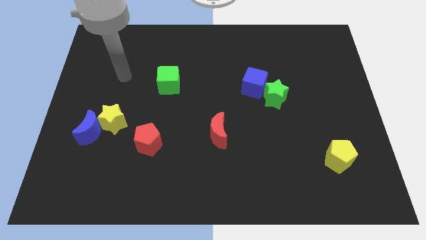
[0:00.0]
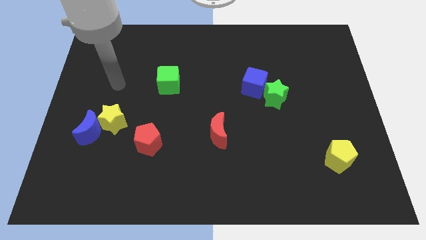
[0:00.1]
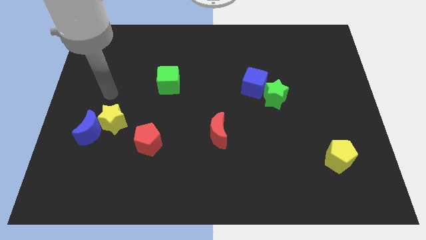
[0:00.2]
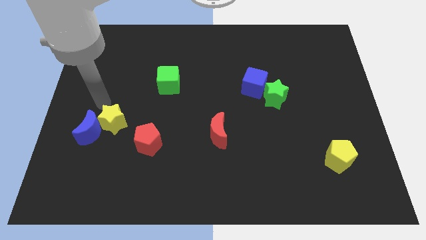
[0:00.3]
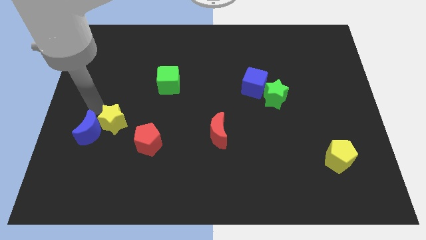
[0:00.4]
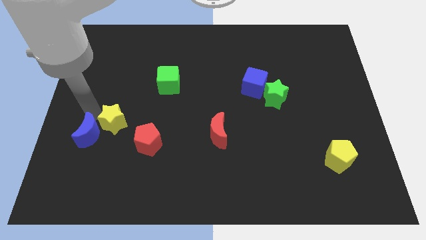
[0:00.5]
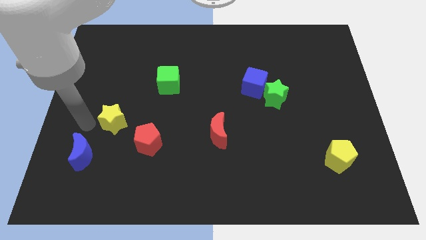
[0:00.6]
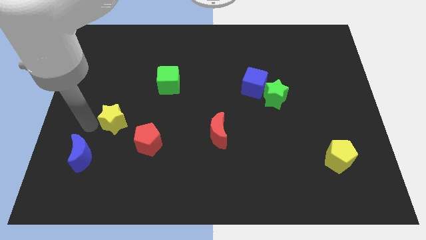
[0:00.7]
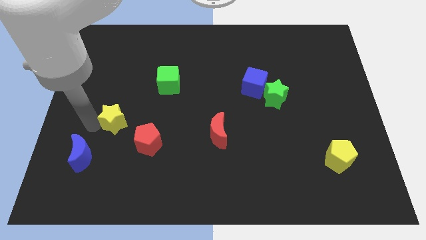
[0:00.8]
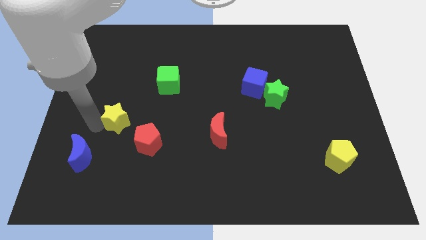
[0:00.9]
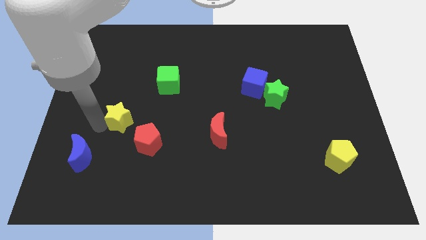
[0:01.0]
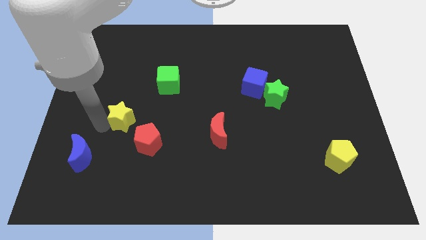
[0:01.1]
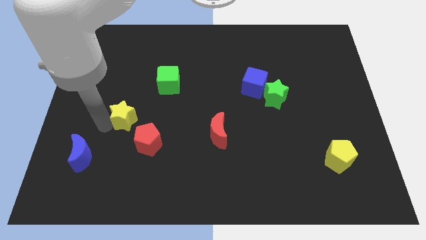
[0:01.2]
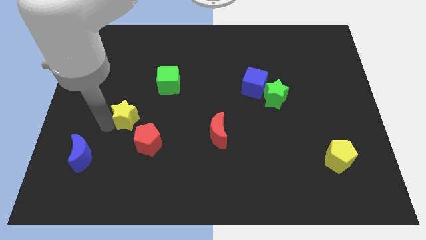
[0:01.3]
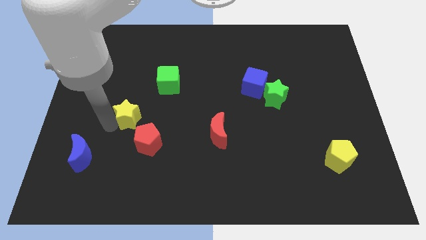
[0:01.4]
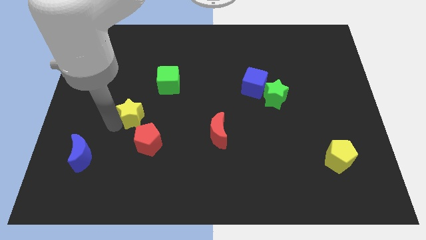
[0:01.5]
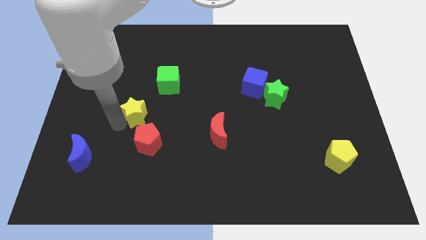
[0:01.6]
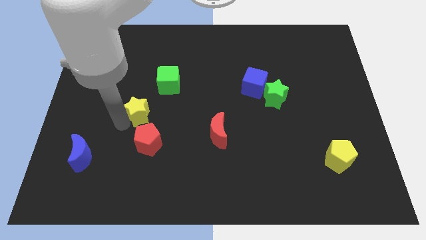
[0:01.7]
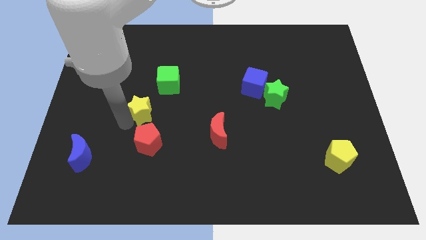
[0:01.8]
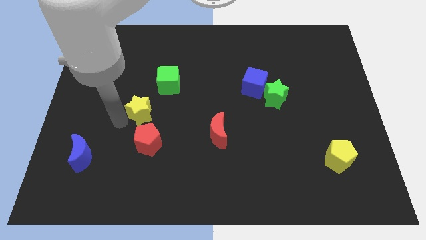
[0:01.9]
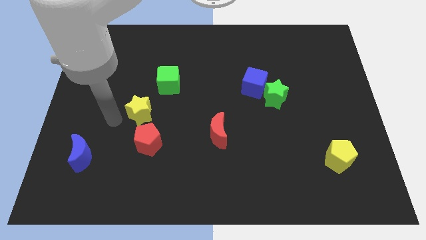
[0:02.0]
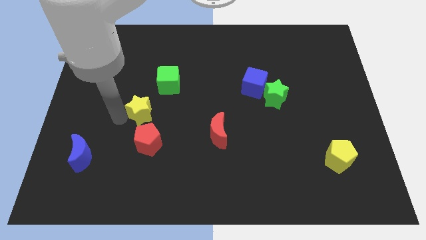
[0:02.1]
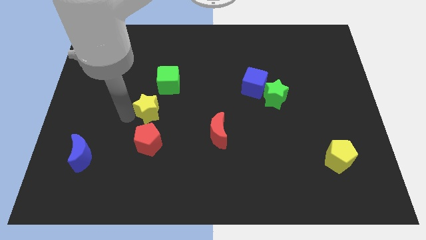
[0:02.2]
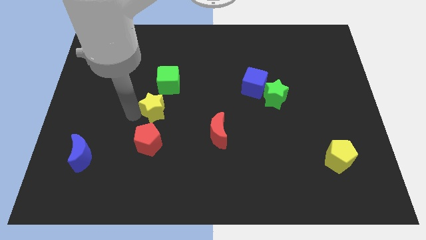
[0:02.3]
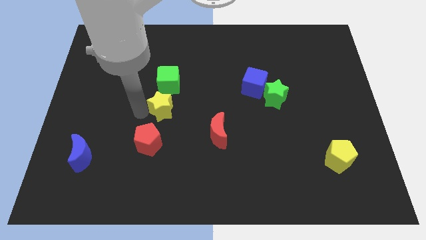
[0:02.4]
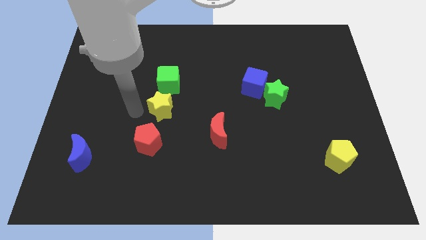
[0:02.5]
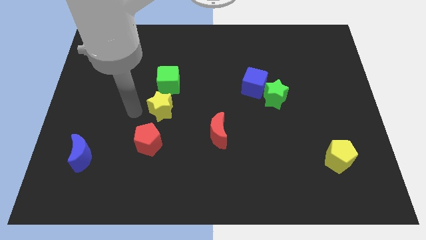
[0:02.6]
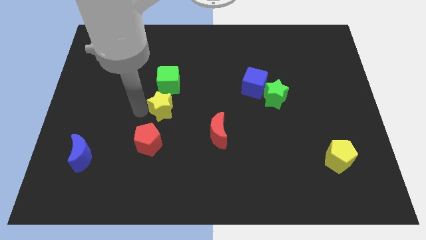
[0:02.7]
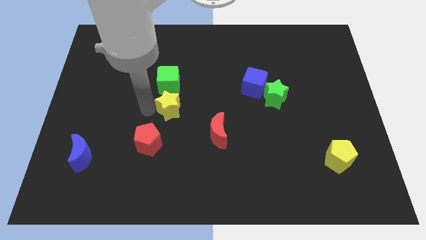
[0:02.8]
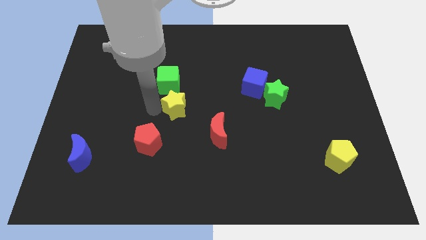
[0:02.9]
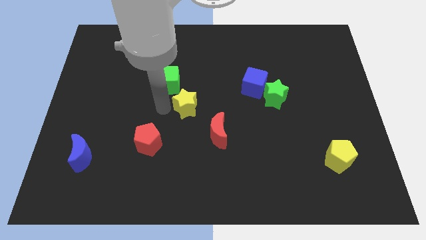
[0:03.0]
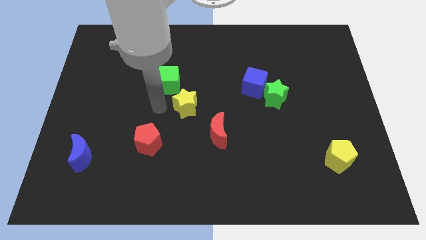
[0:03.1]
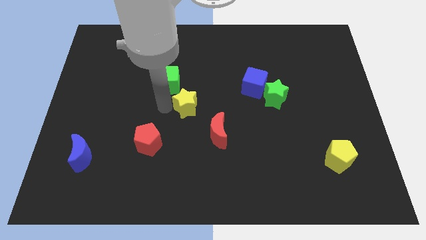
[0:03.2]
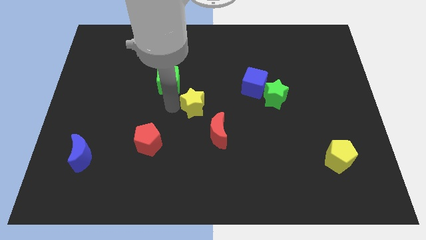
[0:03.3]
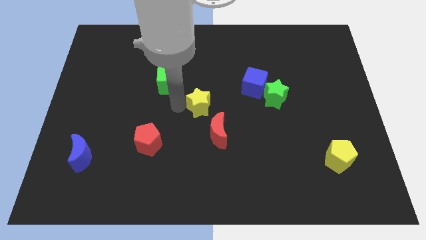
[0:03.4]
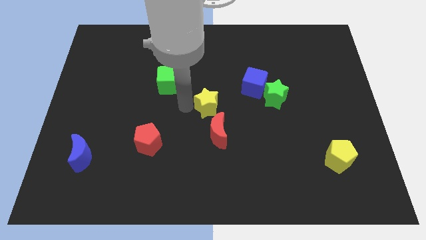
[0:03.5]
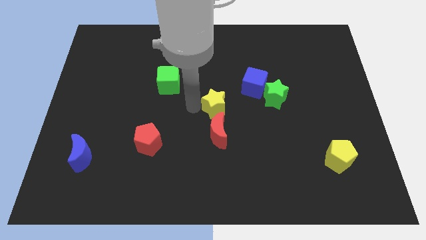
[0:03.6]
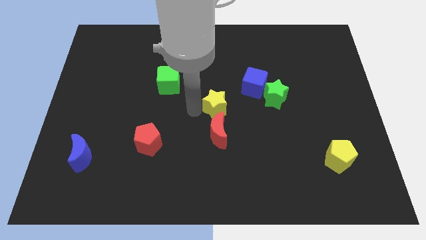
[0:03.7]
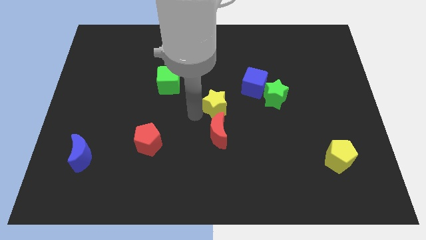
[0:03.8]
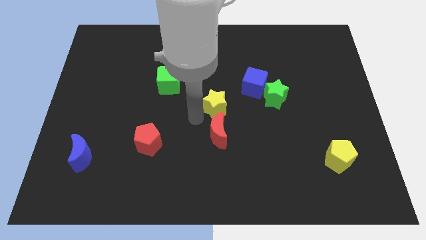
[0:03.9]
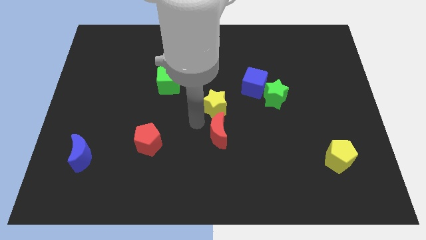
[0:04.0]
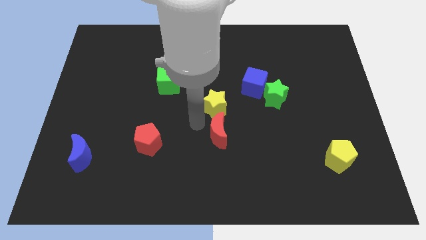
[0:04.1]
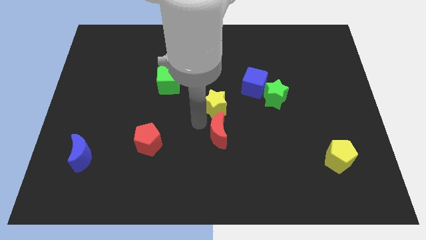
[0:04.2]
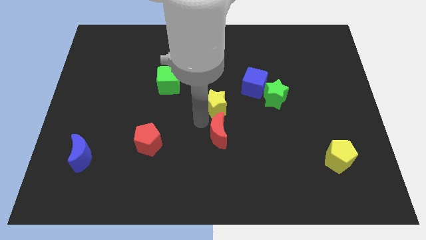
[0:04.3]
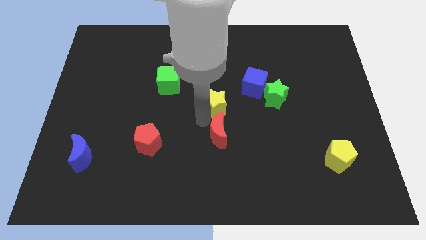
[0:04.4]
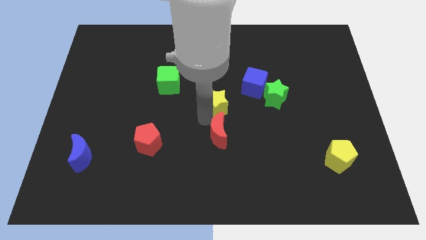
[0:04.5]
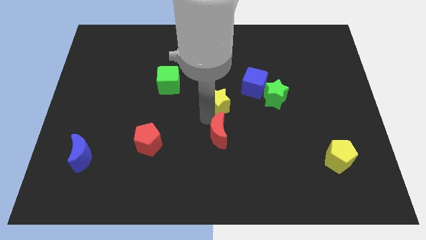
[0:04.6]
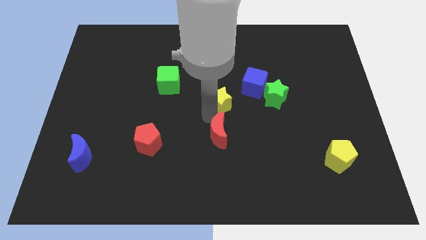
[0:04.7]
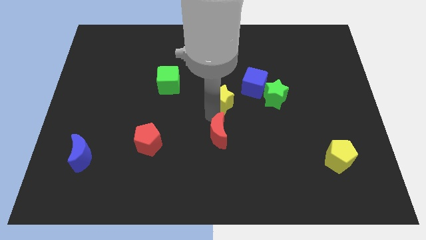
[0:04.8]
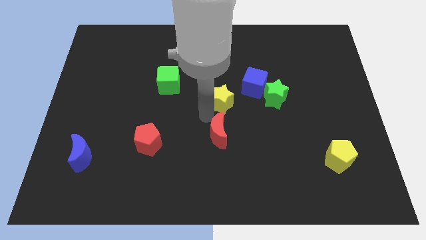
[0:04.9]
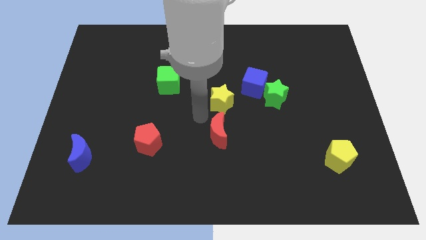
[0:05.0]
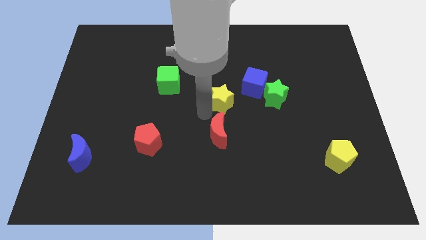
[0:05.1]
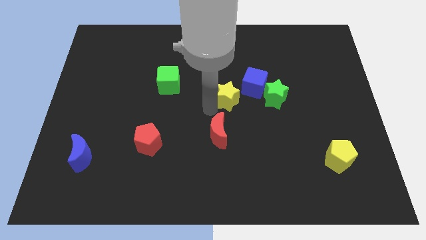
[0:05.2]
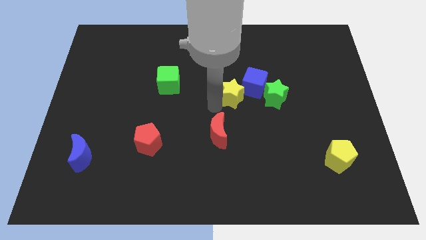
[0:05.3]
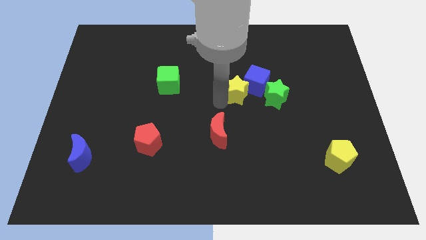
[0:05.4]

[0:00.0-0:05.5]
put the yellow star to the blue cube

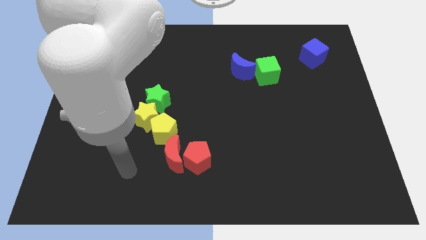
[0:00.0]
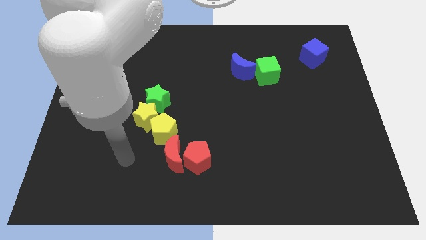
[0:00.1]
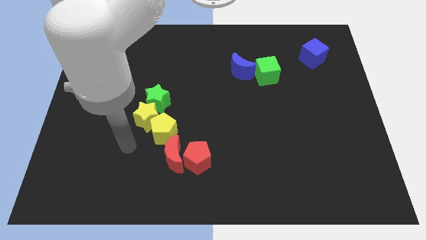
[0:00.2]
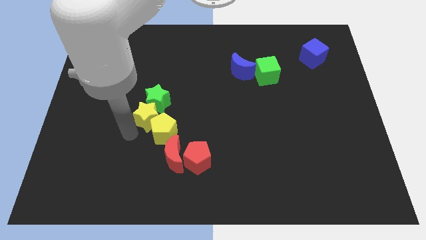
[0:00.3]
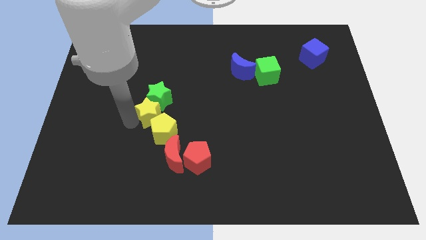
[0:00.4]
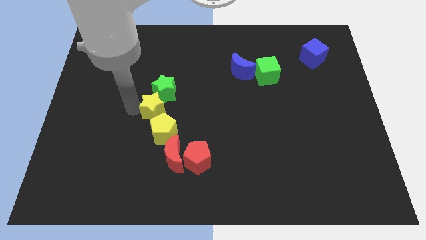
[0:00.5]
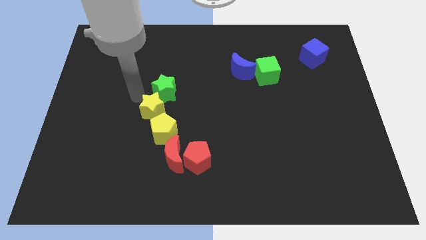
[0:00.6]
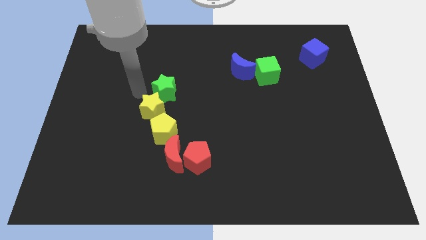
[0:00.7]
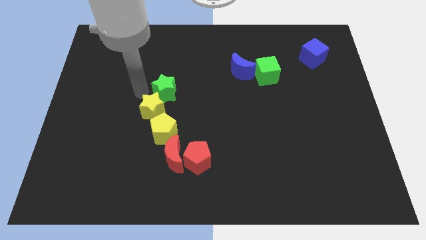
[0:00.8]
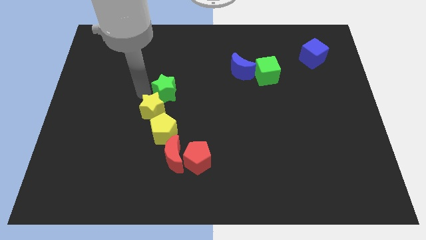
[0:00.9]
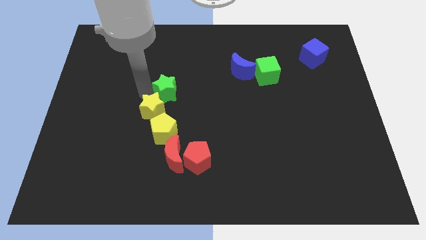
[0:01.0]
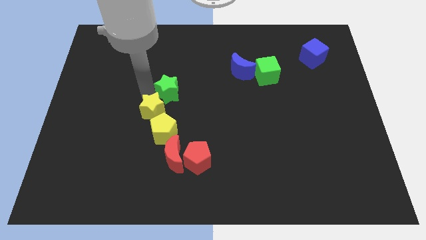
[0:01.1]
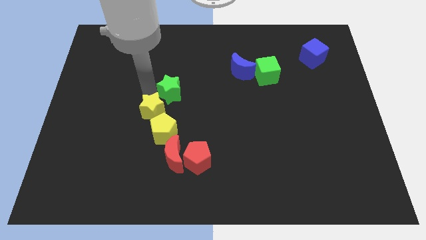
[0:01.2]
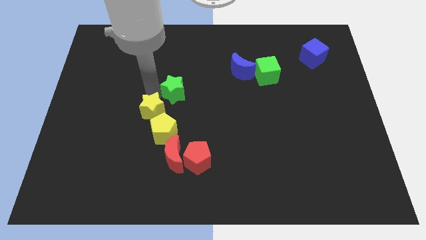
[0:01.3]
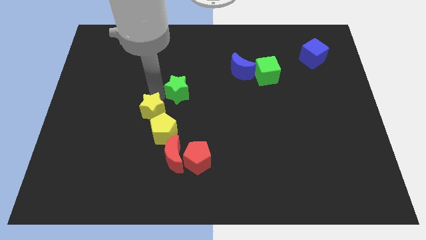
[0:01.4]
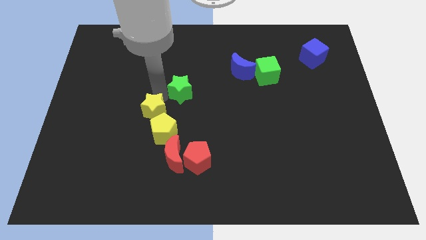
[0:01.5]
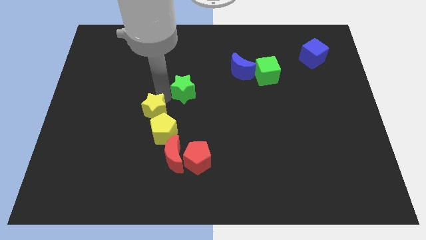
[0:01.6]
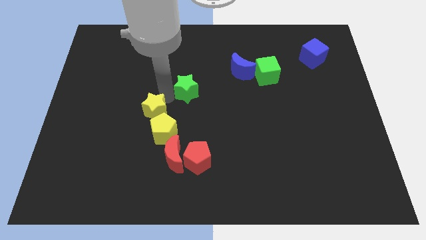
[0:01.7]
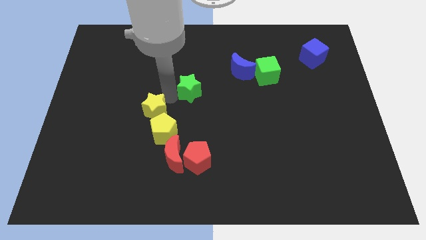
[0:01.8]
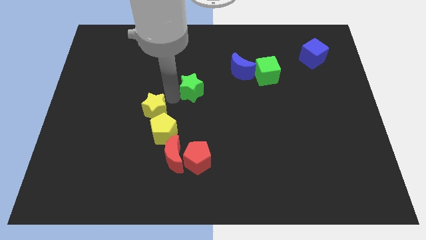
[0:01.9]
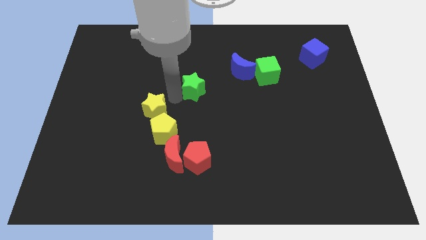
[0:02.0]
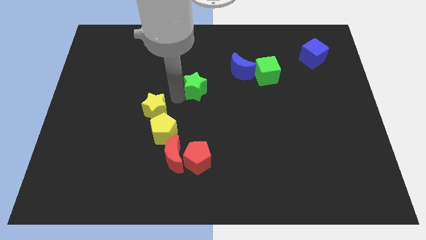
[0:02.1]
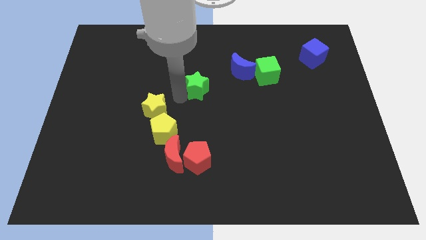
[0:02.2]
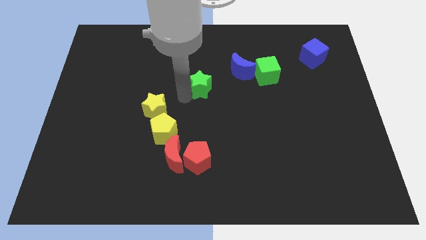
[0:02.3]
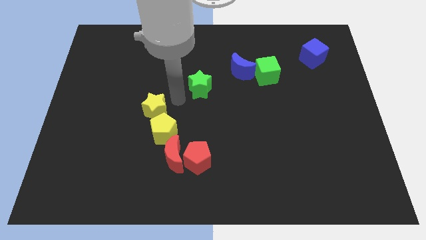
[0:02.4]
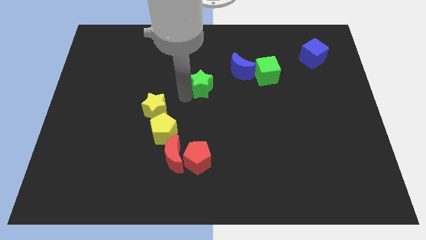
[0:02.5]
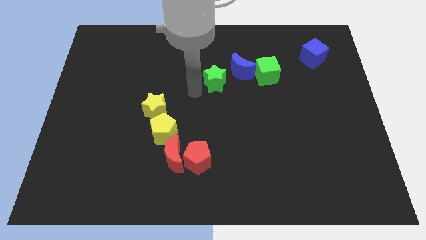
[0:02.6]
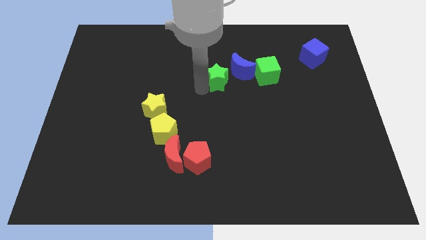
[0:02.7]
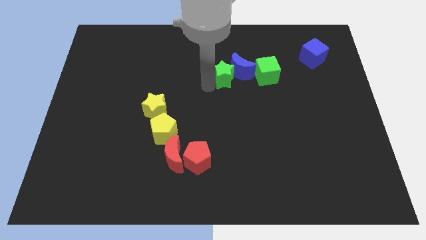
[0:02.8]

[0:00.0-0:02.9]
move the green star to the blue moon
